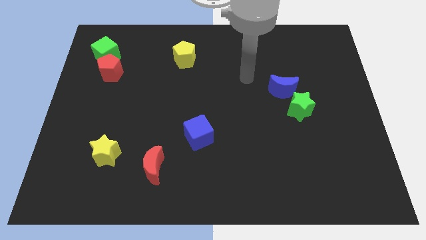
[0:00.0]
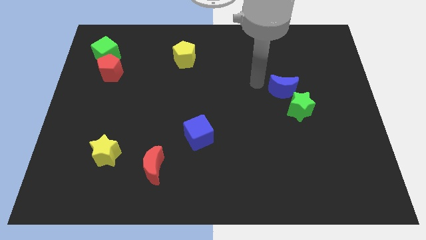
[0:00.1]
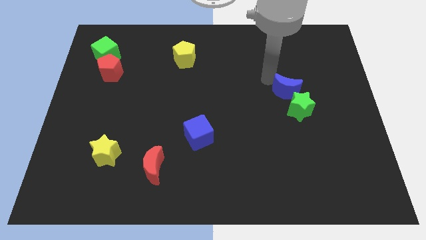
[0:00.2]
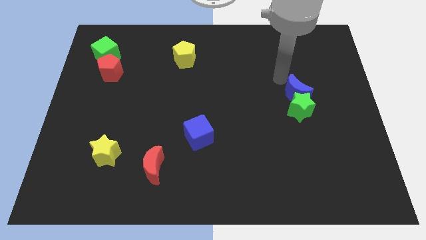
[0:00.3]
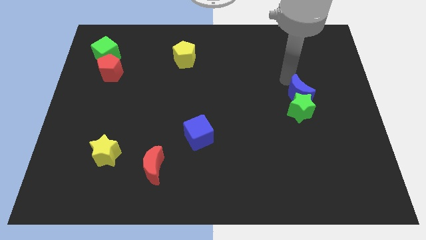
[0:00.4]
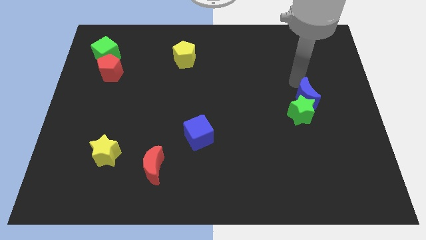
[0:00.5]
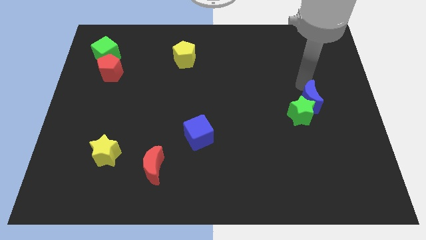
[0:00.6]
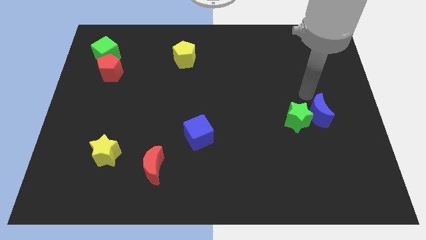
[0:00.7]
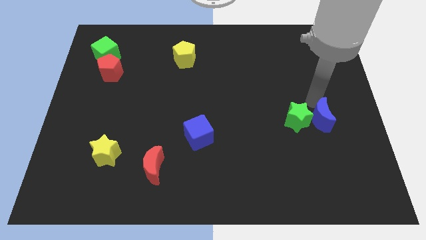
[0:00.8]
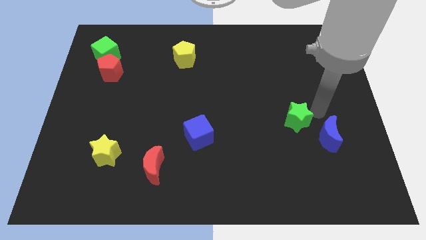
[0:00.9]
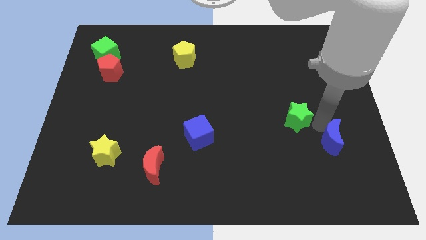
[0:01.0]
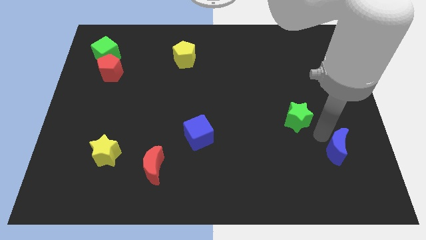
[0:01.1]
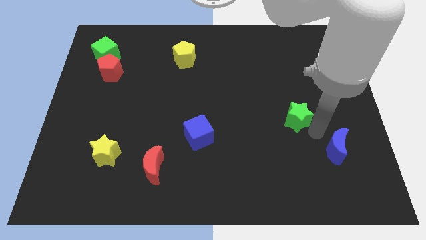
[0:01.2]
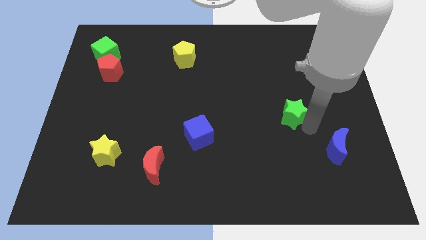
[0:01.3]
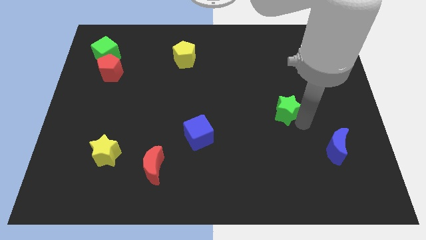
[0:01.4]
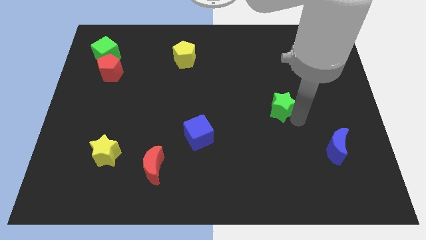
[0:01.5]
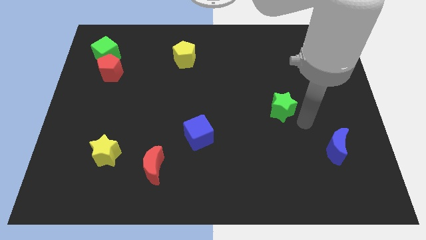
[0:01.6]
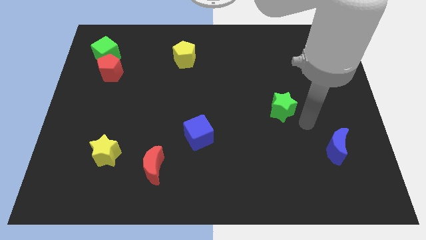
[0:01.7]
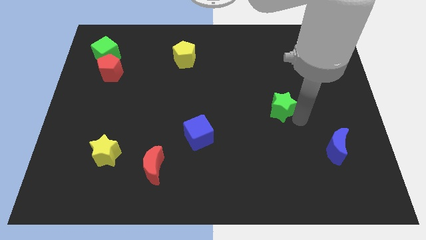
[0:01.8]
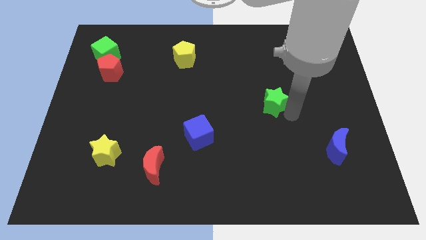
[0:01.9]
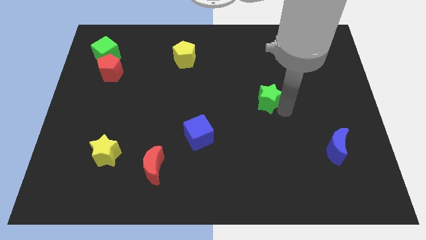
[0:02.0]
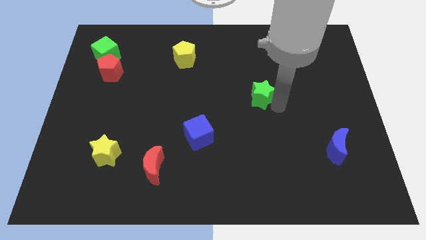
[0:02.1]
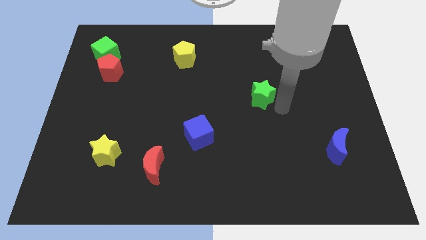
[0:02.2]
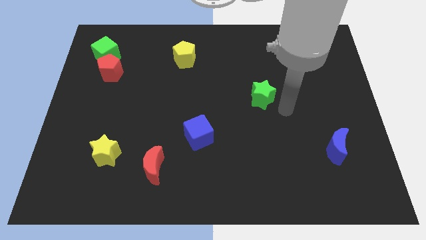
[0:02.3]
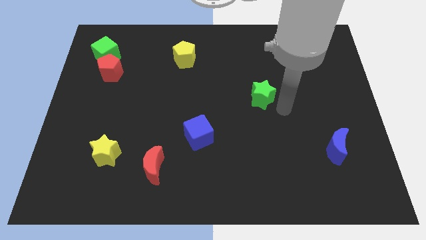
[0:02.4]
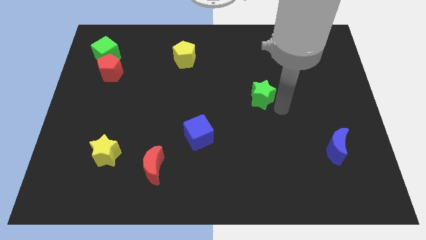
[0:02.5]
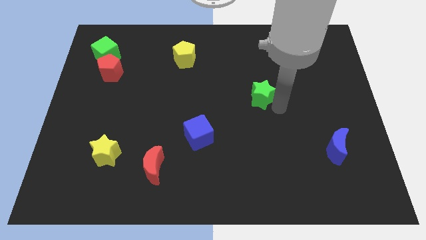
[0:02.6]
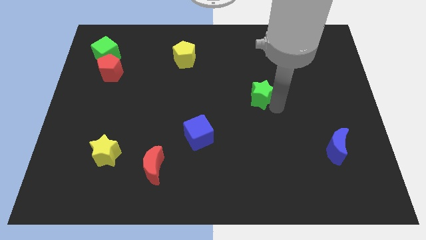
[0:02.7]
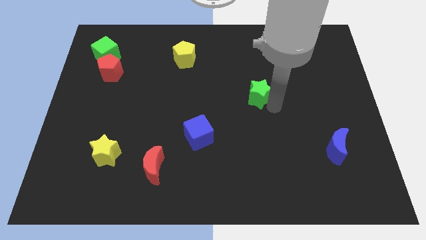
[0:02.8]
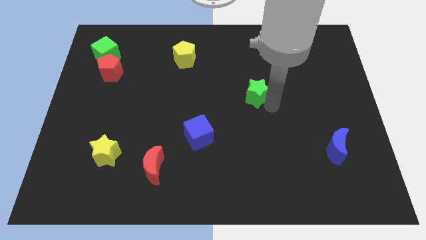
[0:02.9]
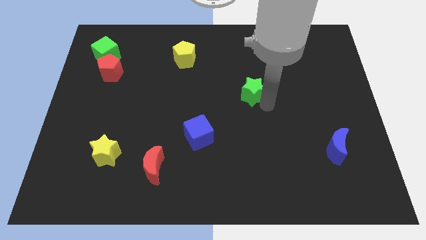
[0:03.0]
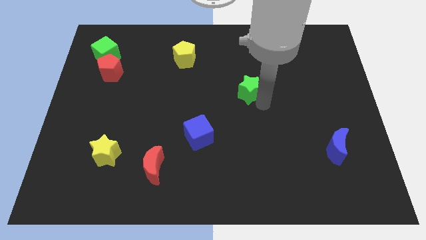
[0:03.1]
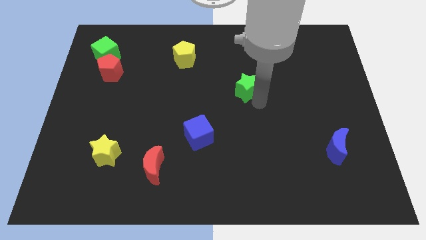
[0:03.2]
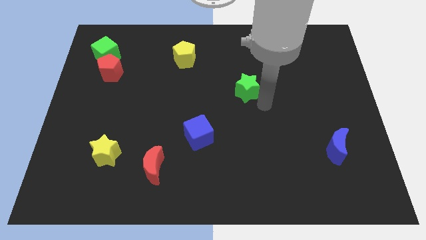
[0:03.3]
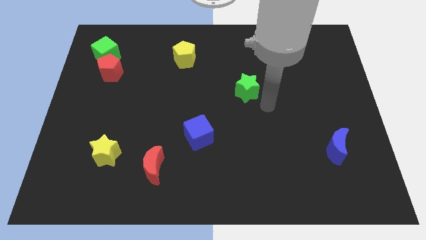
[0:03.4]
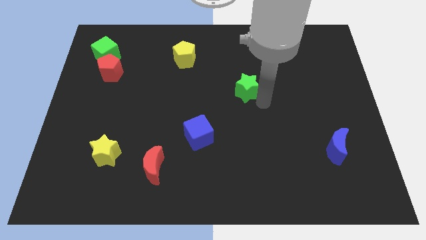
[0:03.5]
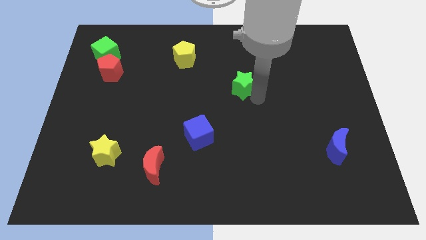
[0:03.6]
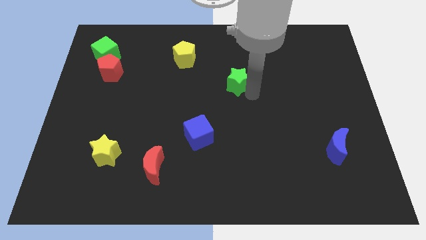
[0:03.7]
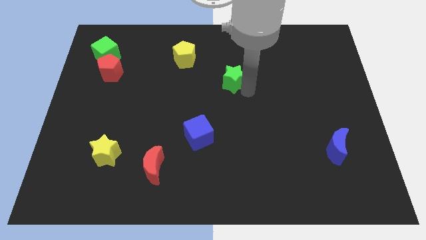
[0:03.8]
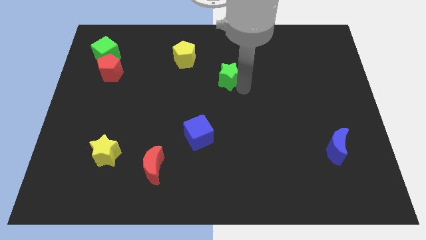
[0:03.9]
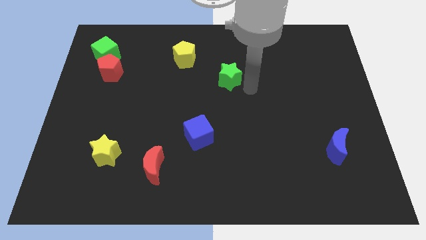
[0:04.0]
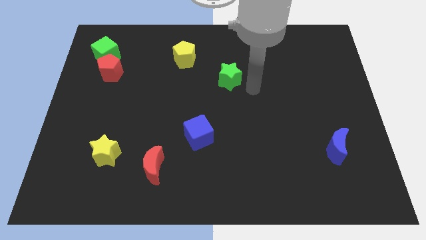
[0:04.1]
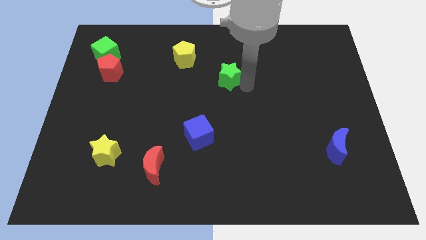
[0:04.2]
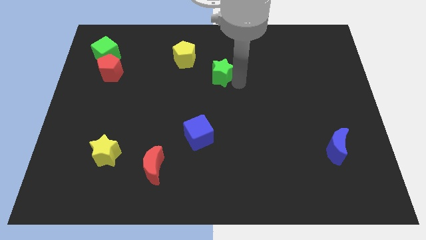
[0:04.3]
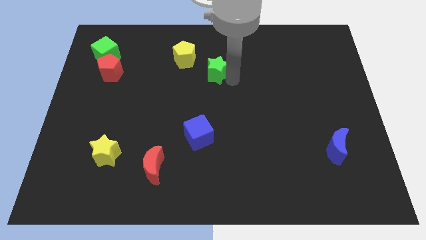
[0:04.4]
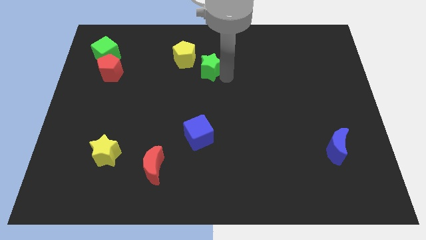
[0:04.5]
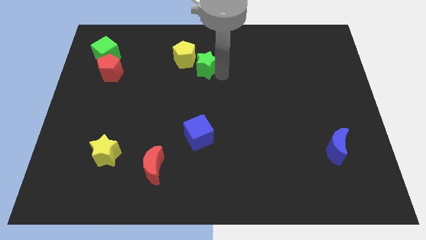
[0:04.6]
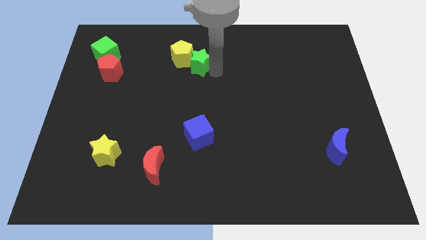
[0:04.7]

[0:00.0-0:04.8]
slide the green star close to the yellow pentagon

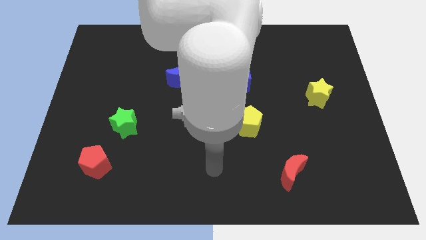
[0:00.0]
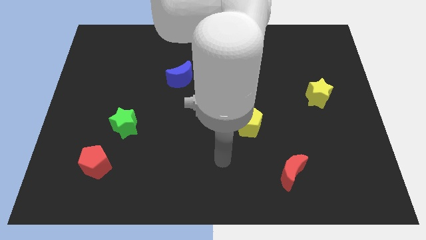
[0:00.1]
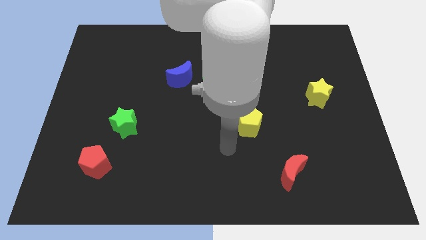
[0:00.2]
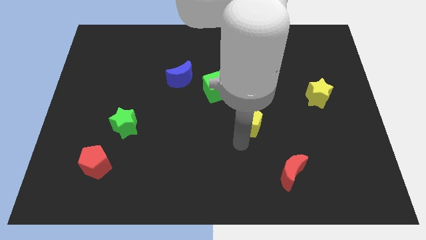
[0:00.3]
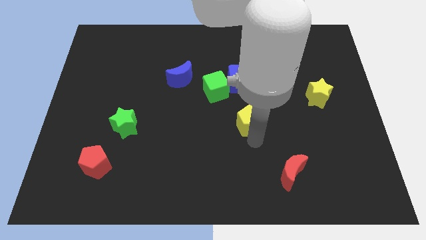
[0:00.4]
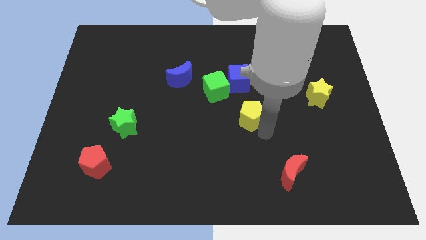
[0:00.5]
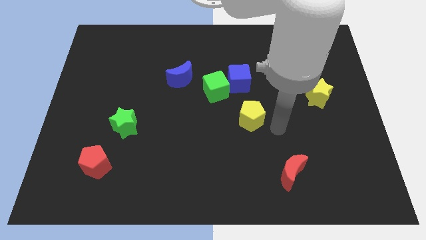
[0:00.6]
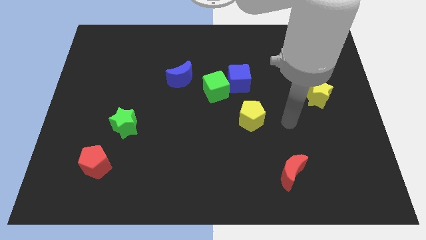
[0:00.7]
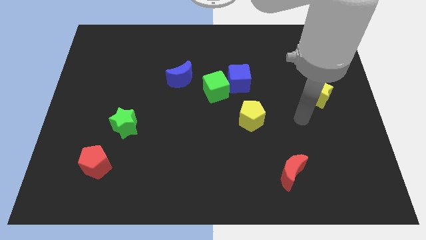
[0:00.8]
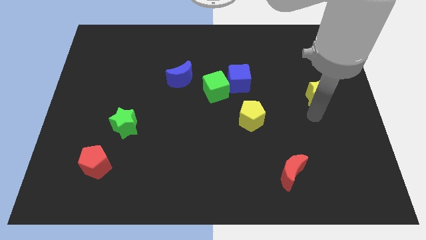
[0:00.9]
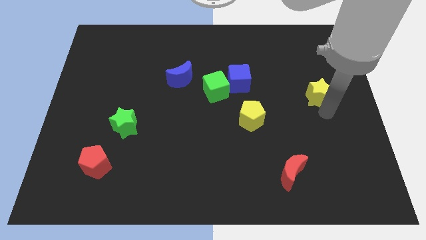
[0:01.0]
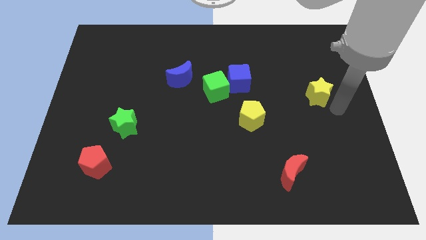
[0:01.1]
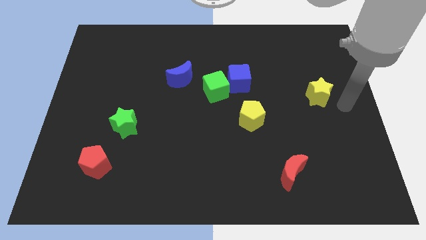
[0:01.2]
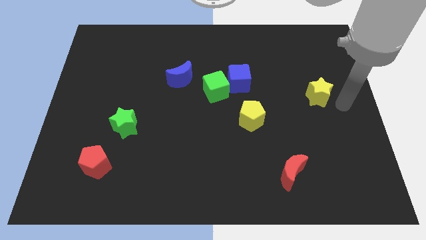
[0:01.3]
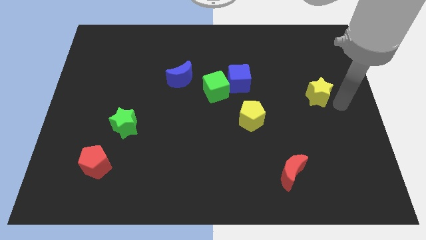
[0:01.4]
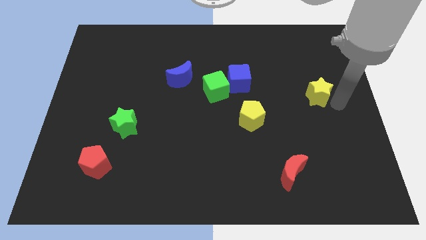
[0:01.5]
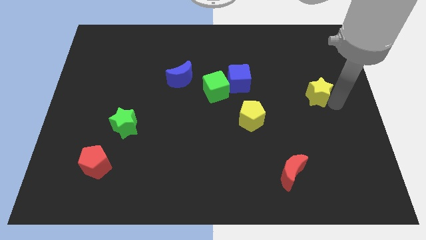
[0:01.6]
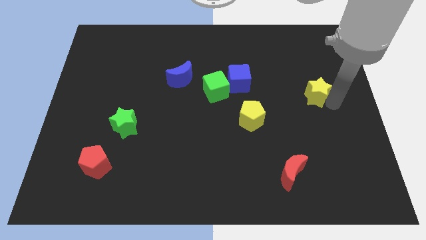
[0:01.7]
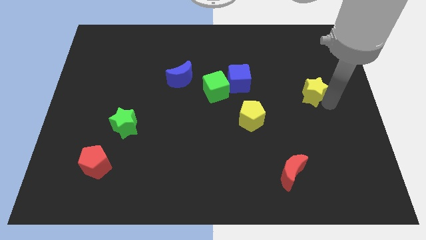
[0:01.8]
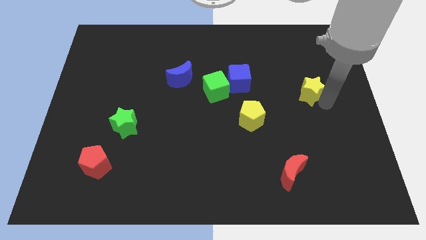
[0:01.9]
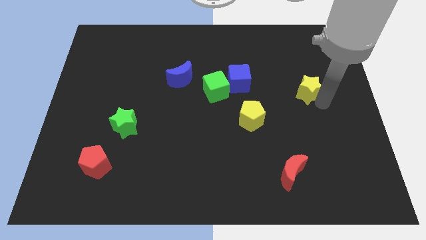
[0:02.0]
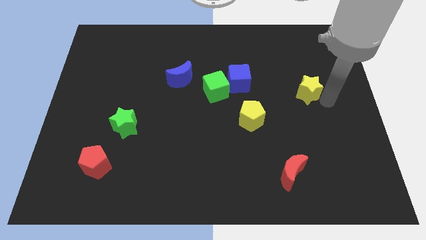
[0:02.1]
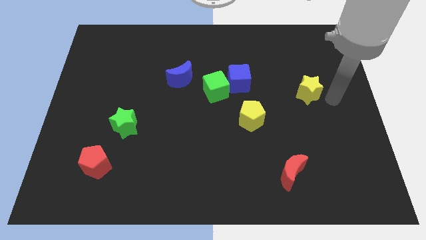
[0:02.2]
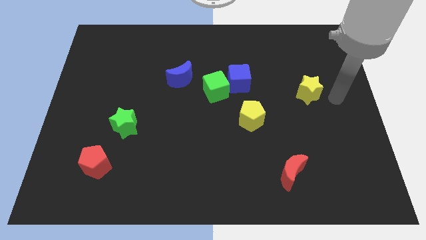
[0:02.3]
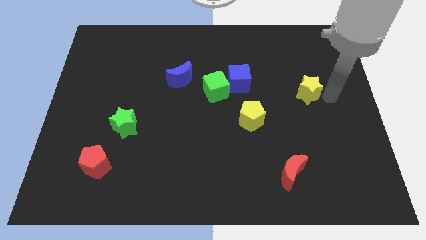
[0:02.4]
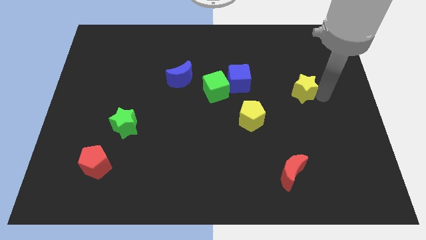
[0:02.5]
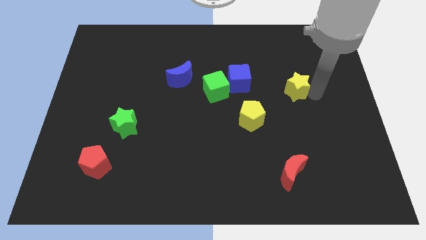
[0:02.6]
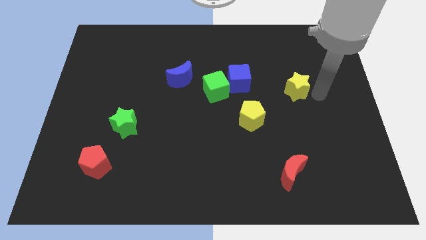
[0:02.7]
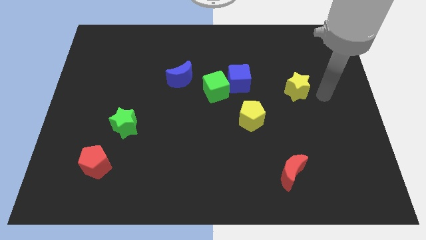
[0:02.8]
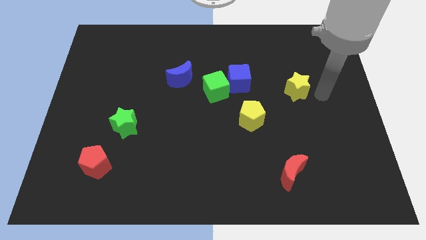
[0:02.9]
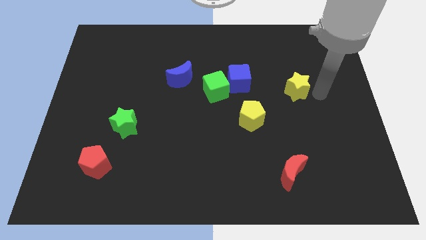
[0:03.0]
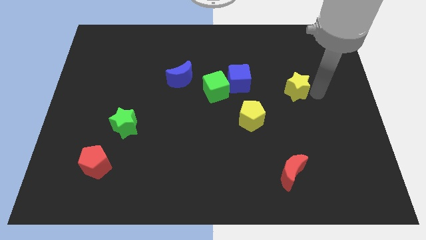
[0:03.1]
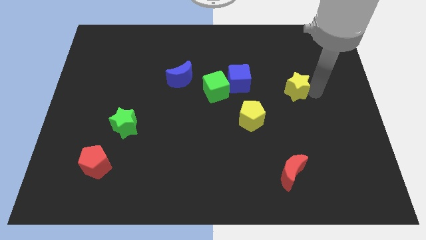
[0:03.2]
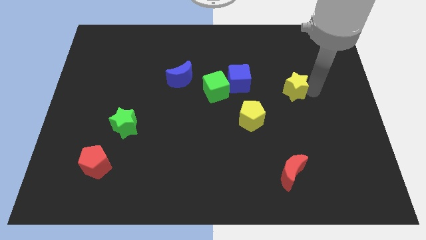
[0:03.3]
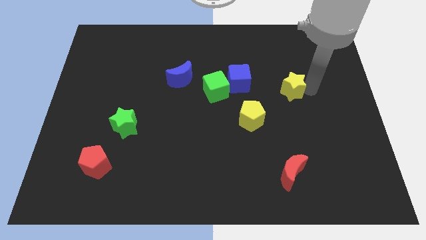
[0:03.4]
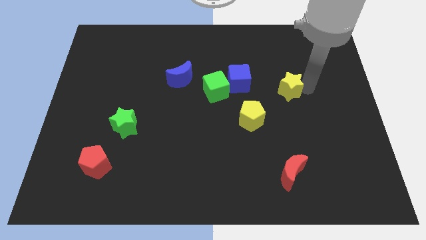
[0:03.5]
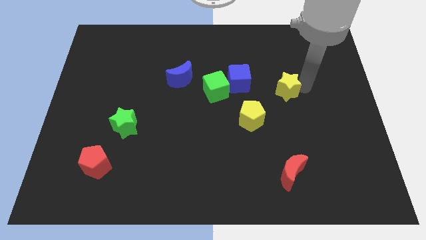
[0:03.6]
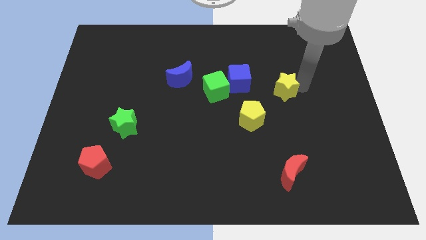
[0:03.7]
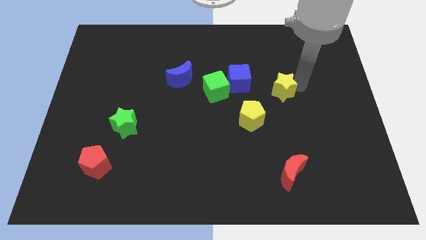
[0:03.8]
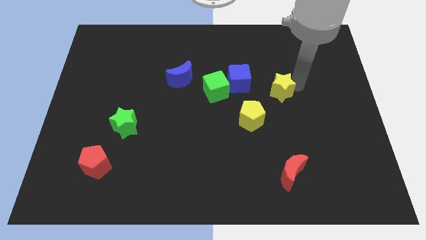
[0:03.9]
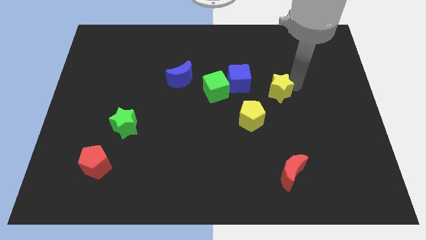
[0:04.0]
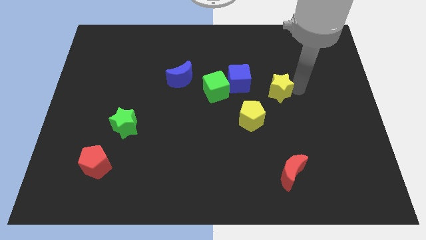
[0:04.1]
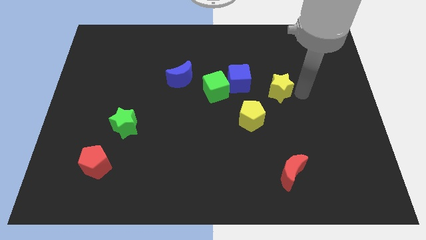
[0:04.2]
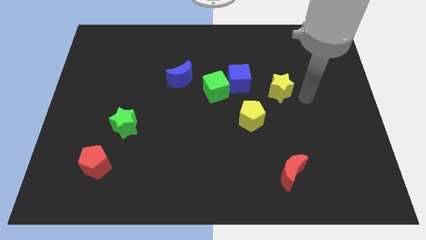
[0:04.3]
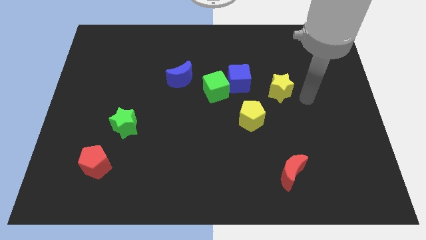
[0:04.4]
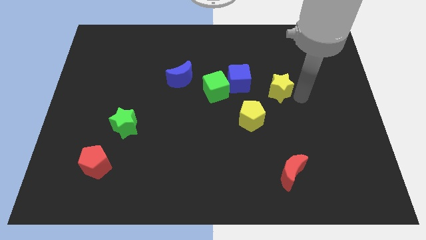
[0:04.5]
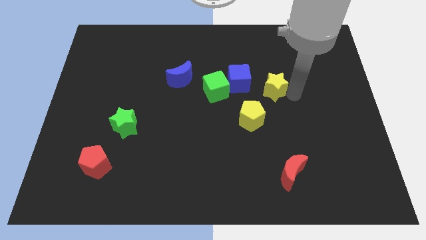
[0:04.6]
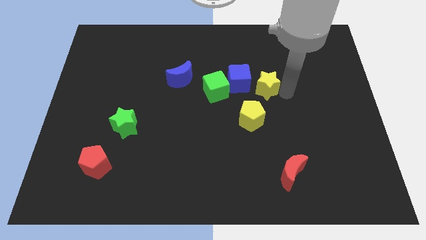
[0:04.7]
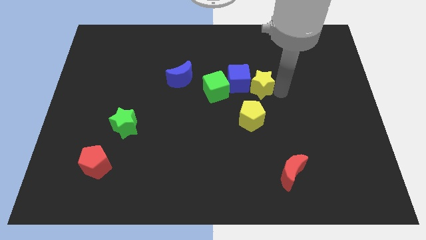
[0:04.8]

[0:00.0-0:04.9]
slide the yellow star next to the blue cube
